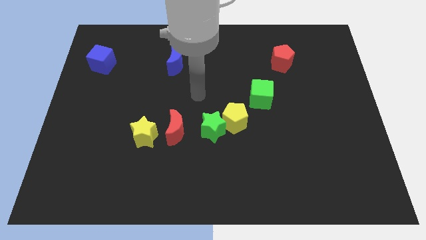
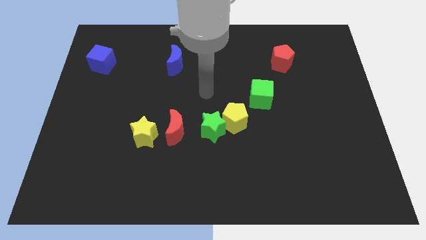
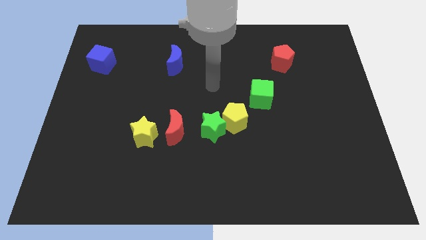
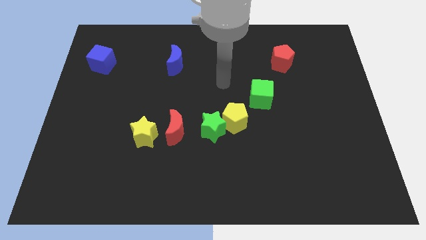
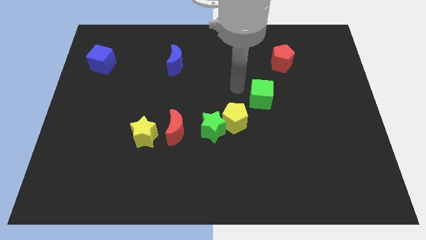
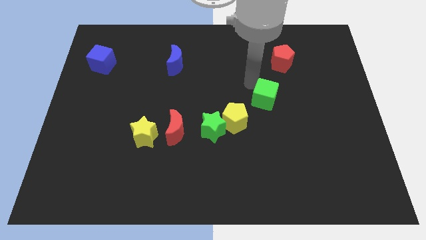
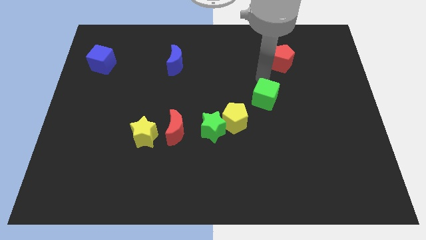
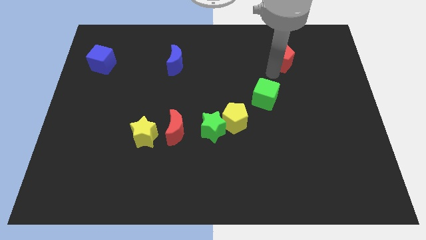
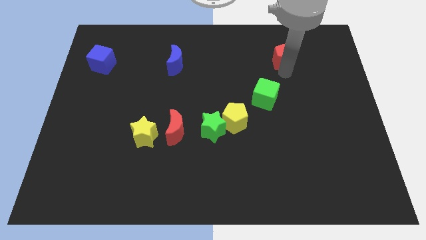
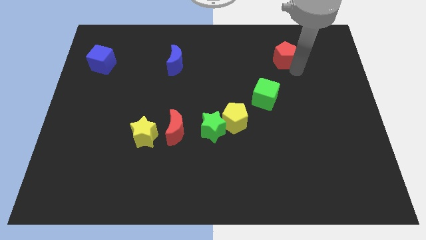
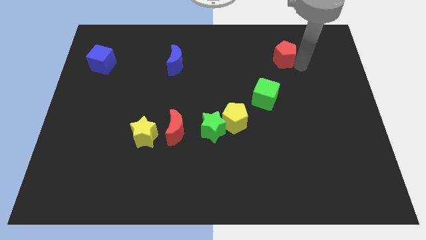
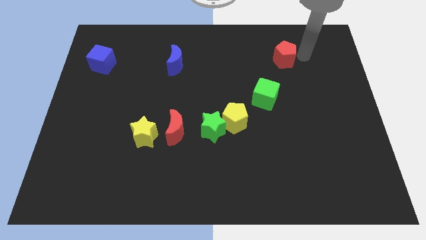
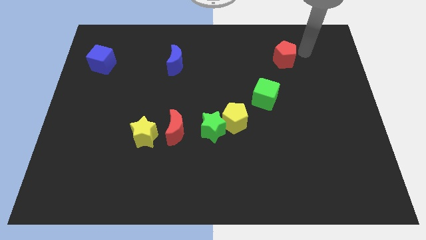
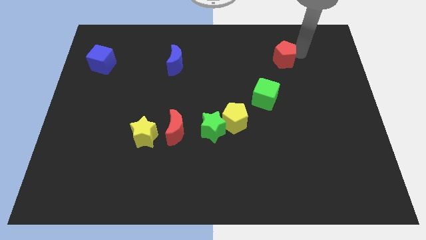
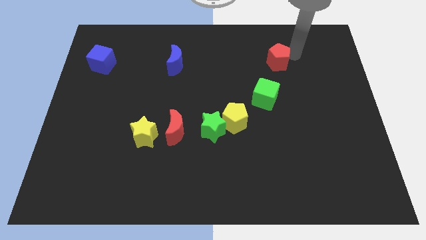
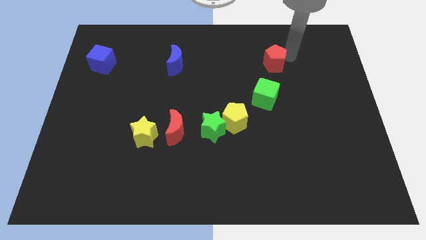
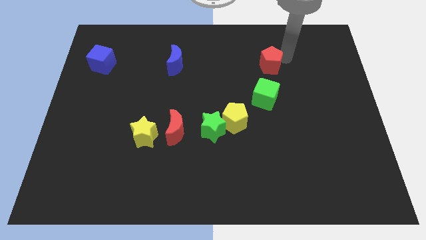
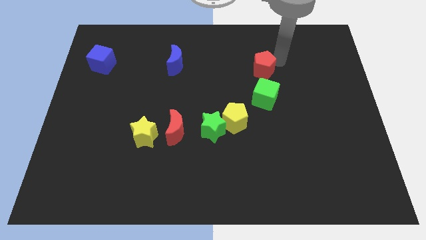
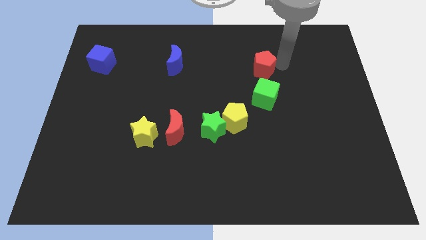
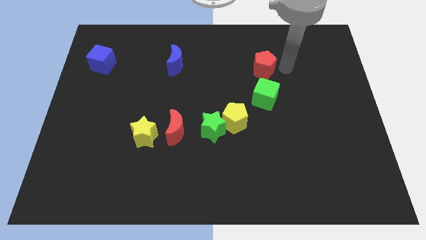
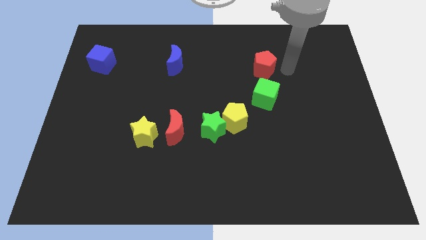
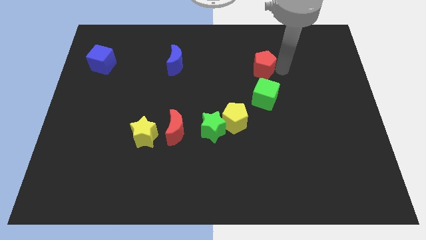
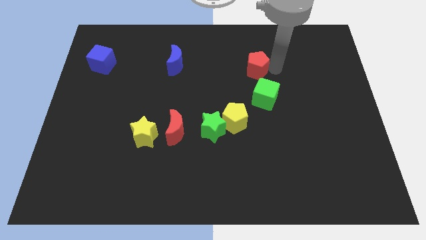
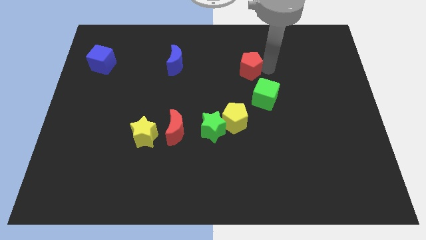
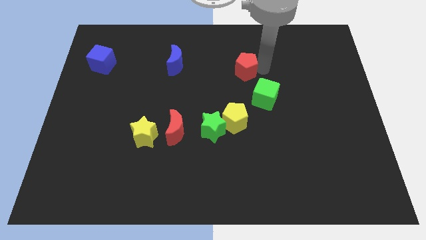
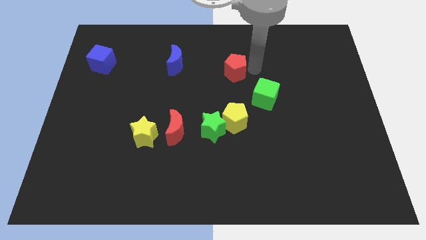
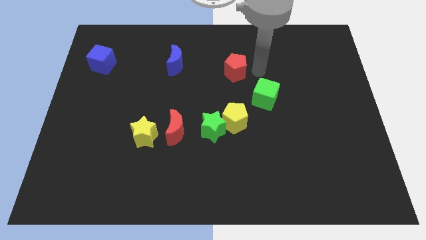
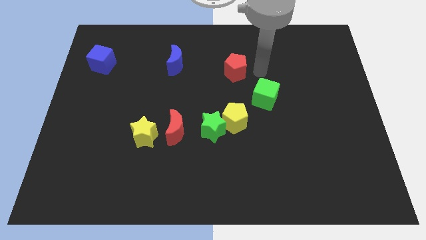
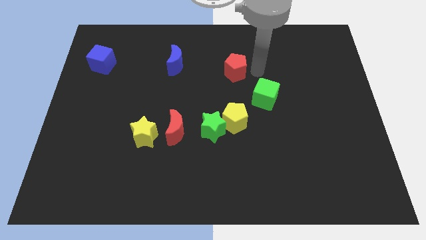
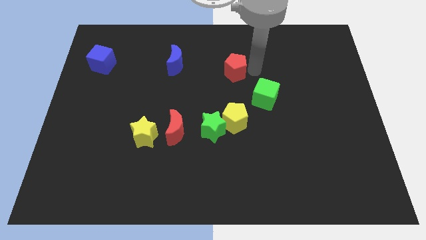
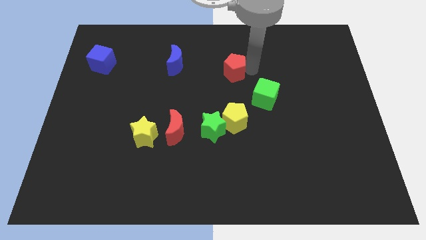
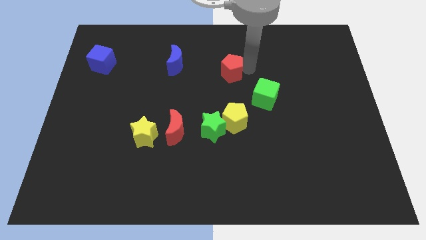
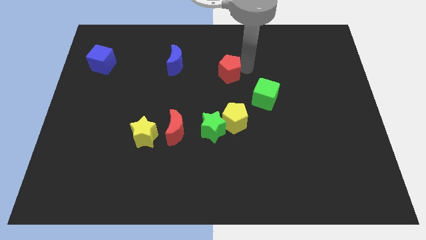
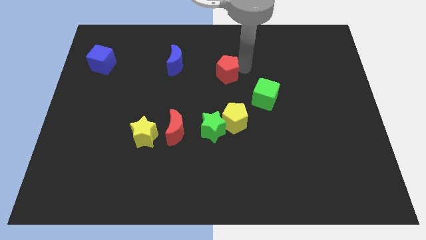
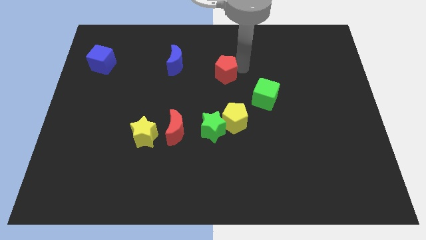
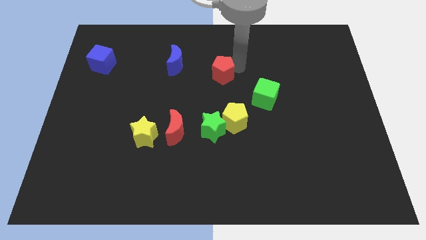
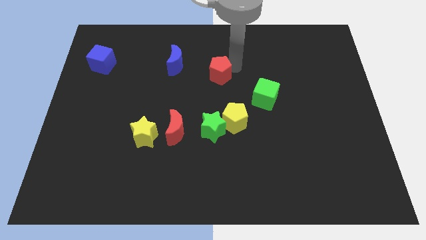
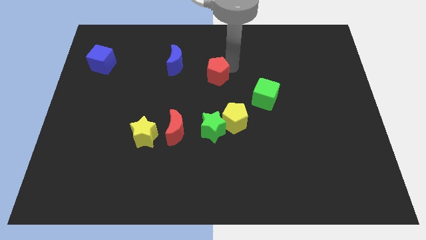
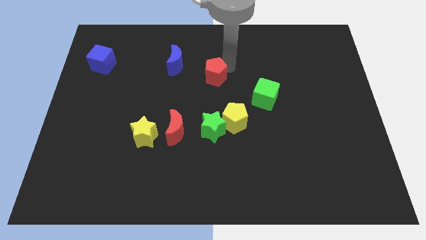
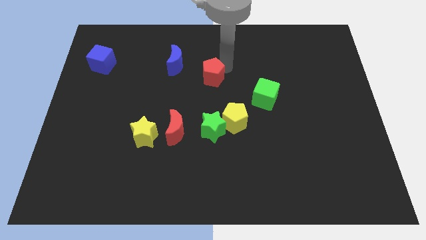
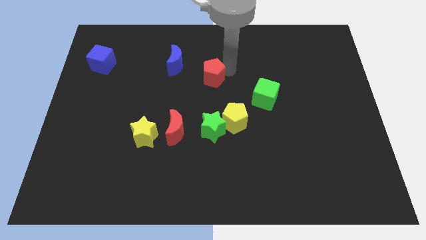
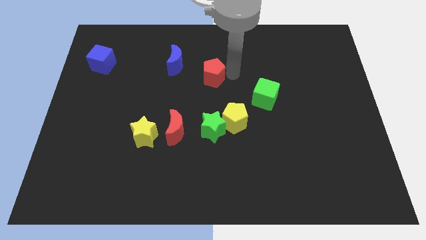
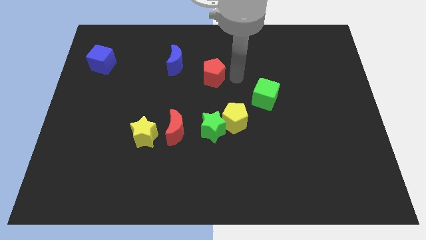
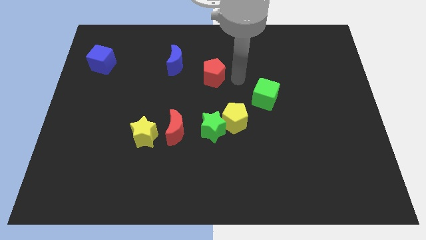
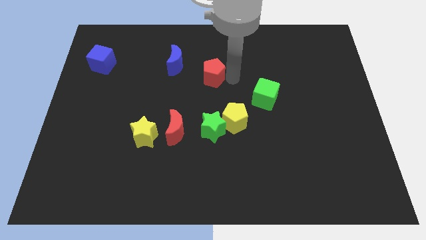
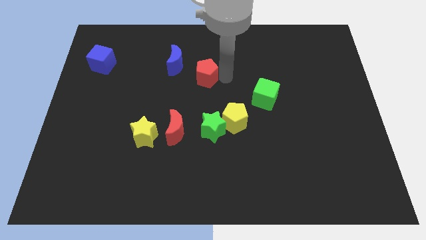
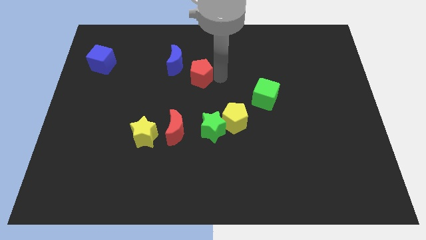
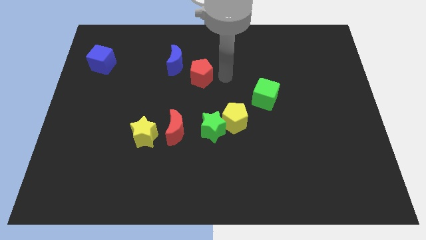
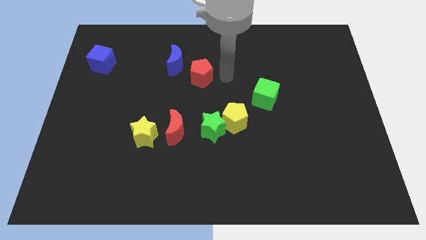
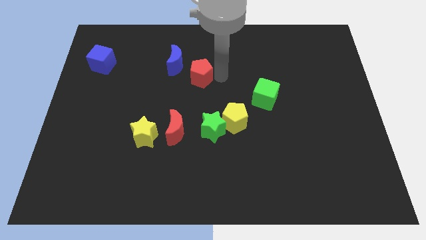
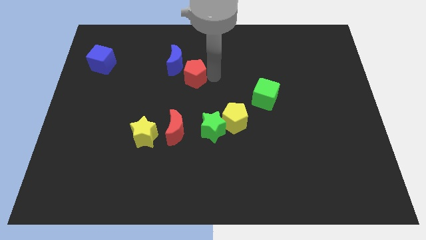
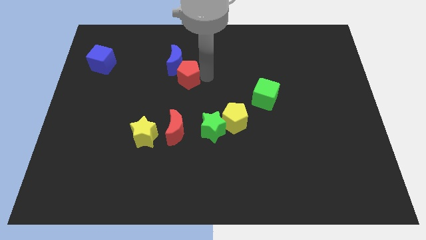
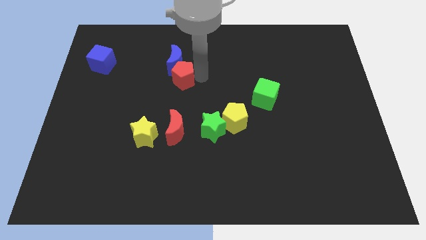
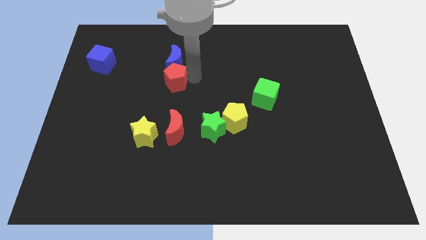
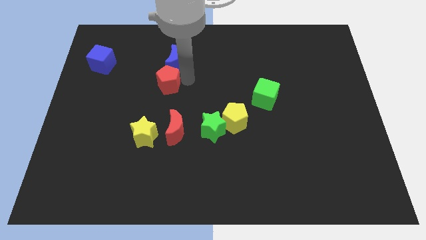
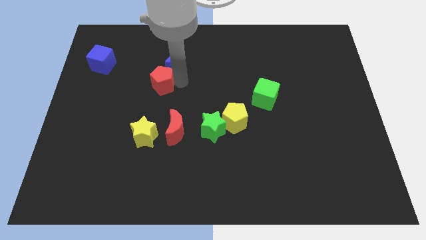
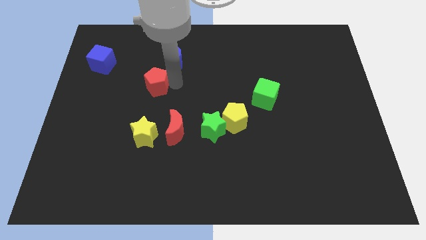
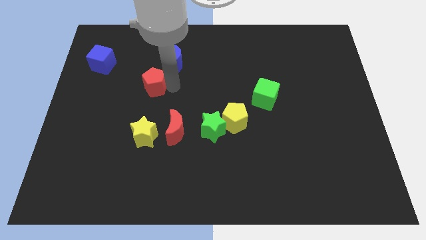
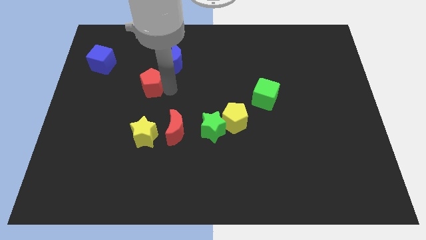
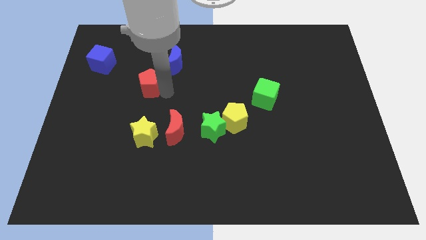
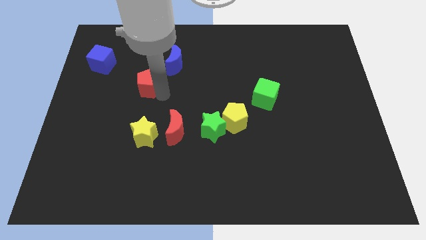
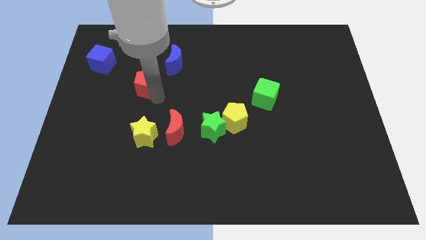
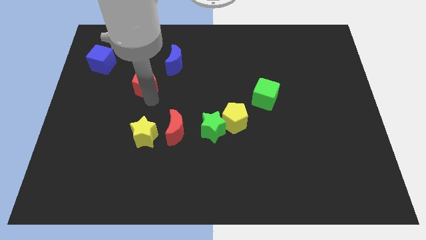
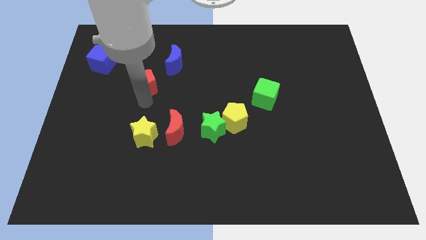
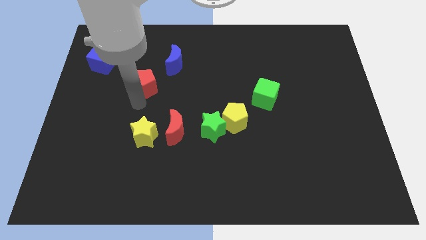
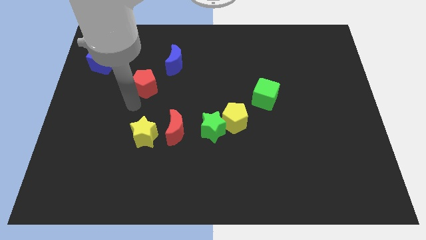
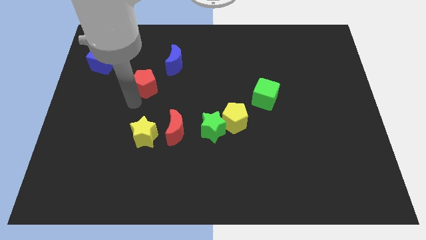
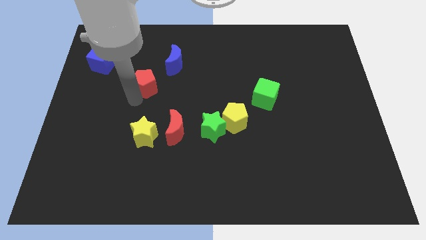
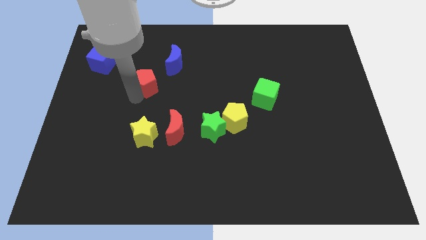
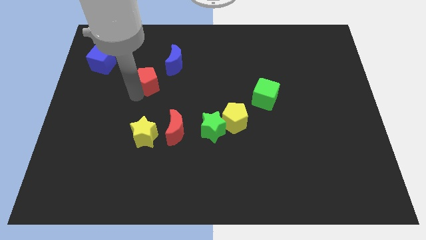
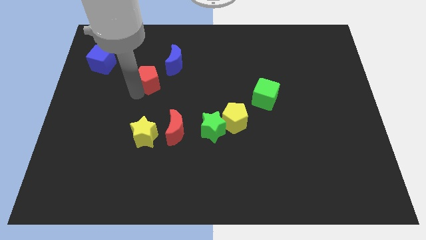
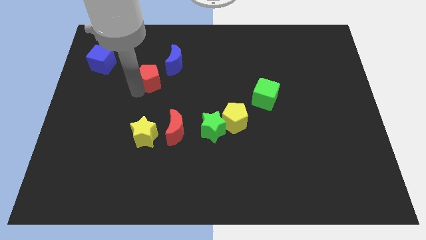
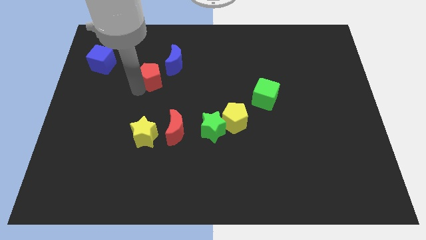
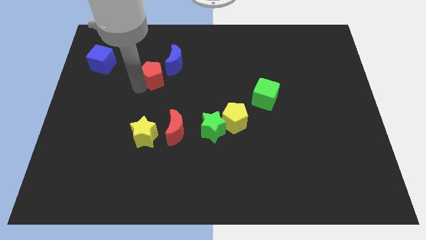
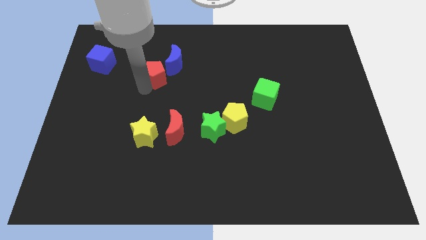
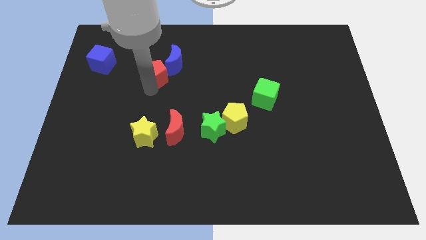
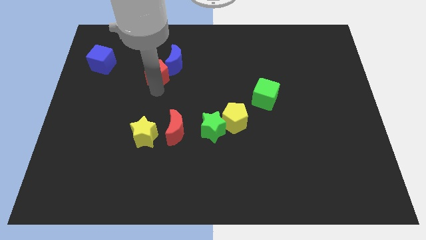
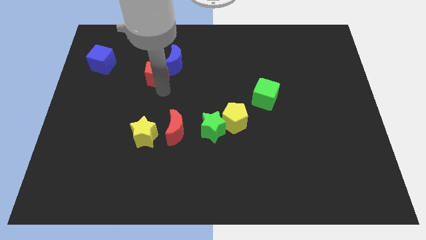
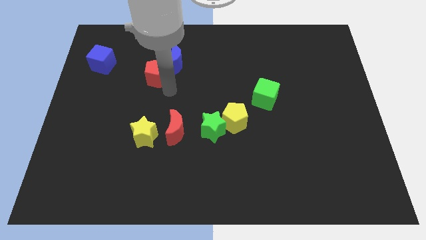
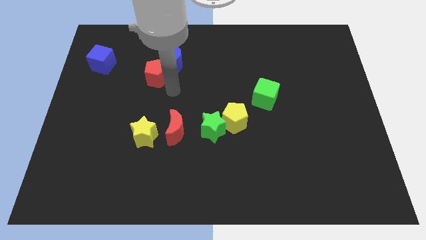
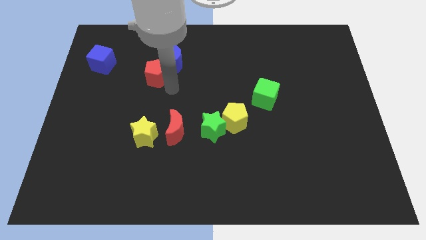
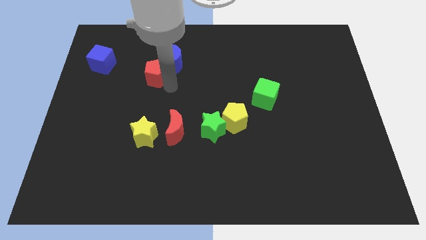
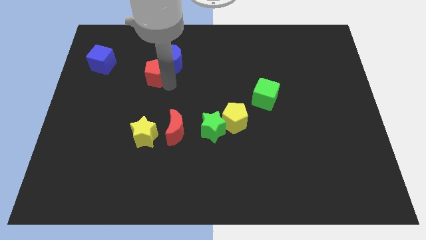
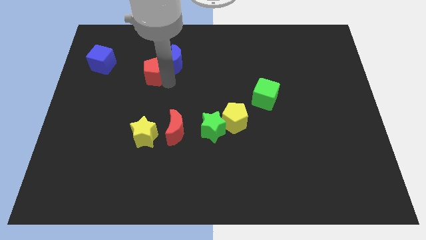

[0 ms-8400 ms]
push the red pentagon right of the blue cube
